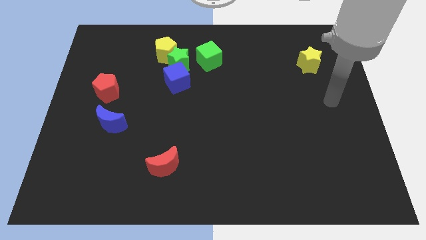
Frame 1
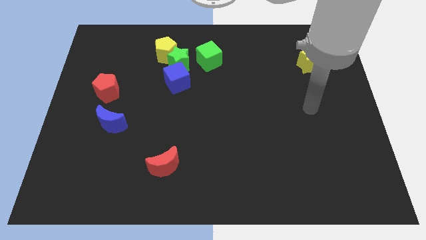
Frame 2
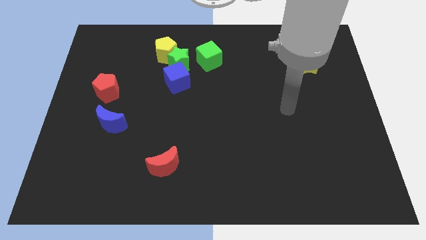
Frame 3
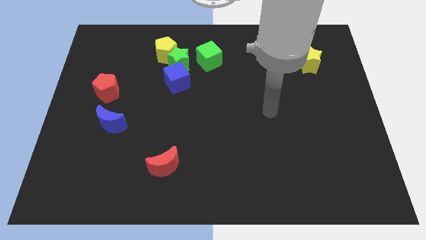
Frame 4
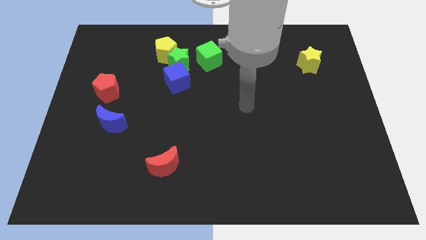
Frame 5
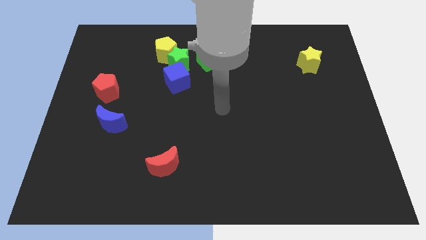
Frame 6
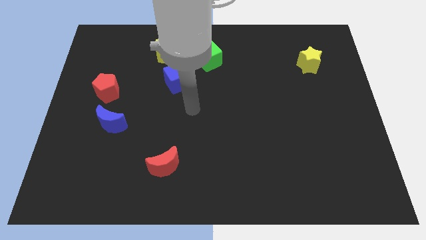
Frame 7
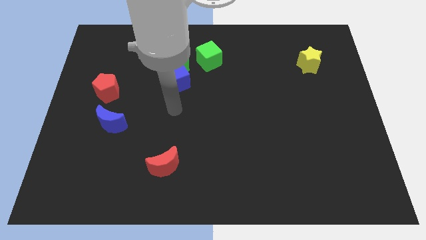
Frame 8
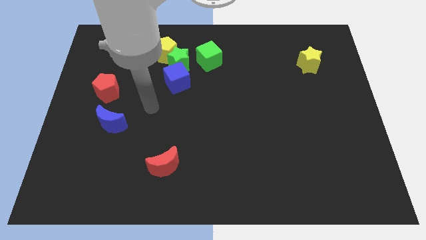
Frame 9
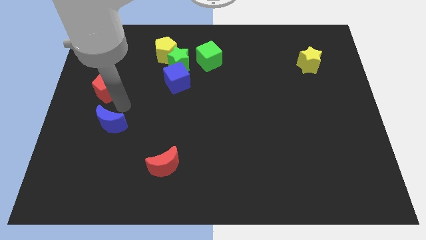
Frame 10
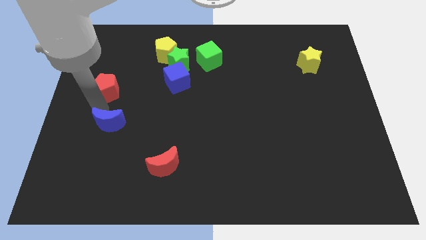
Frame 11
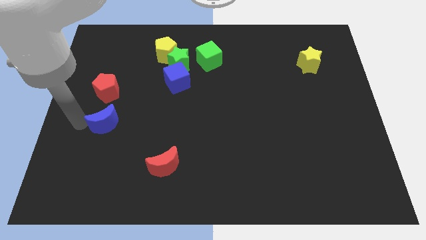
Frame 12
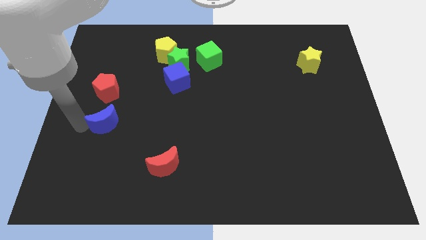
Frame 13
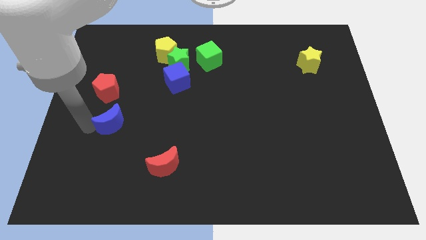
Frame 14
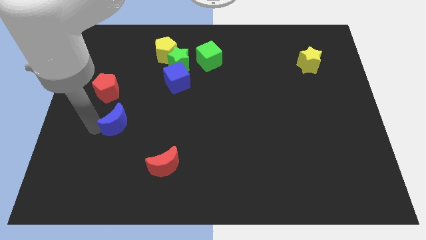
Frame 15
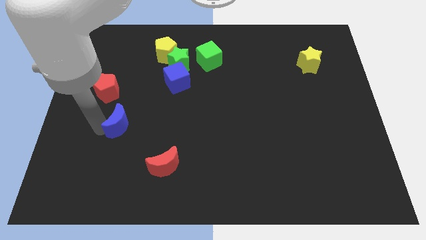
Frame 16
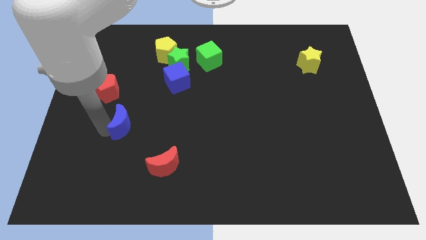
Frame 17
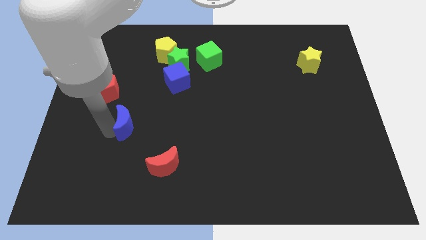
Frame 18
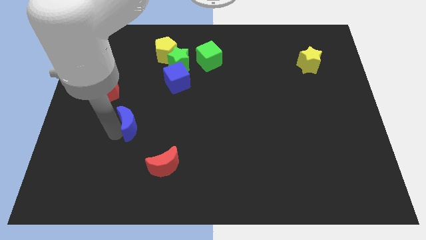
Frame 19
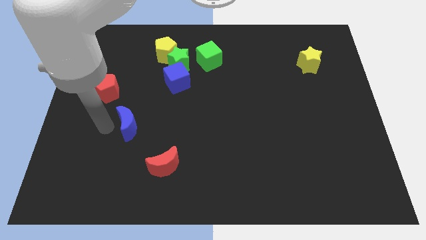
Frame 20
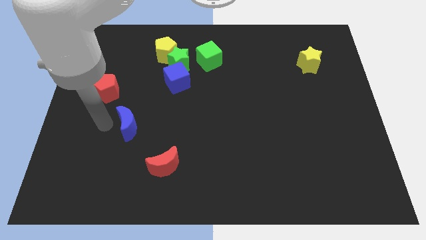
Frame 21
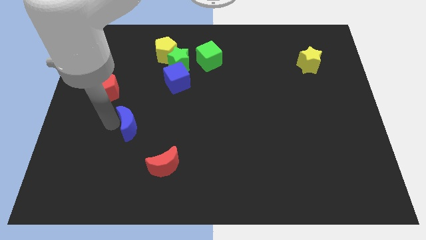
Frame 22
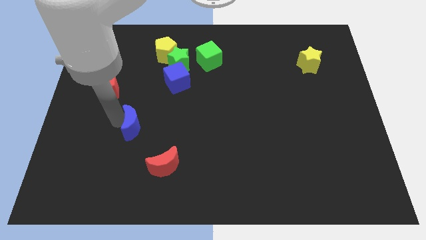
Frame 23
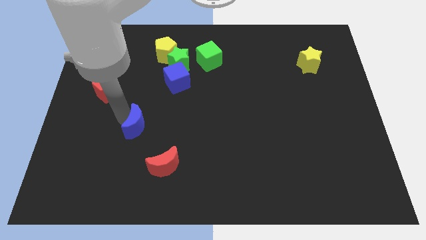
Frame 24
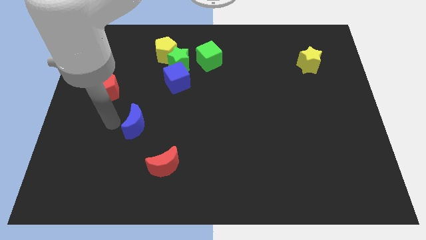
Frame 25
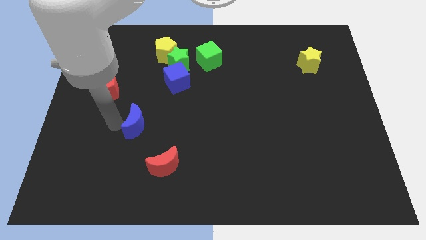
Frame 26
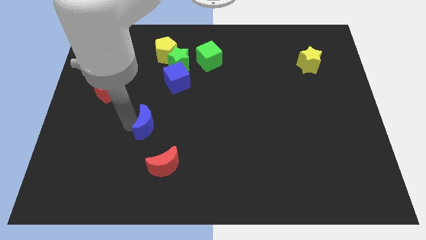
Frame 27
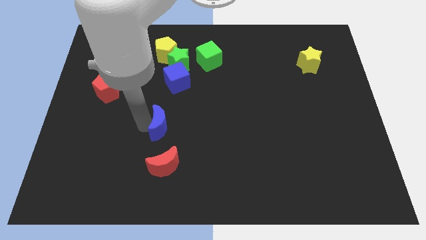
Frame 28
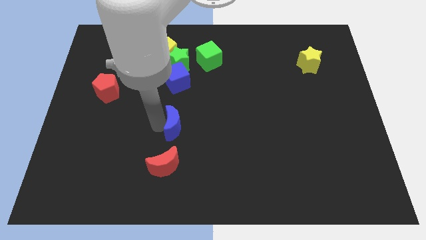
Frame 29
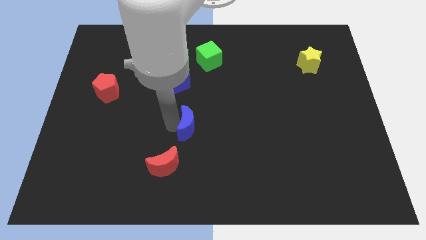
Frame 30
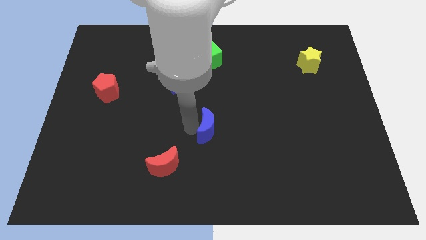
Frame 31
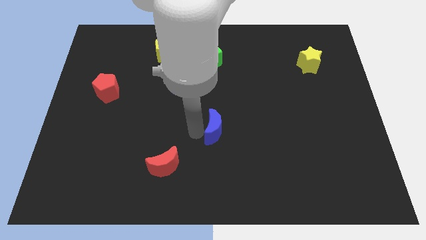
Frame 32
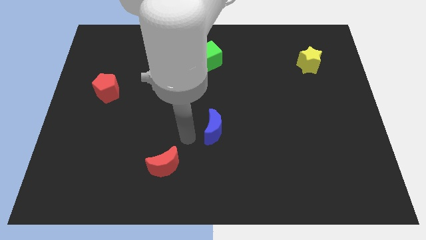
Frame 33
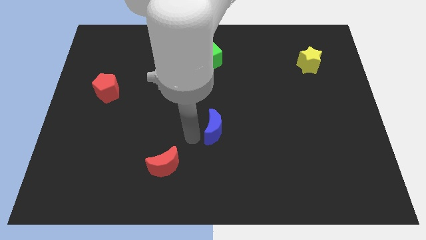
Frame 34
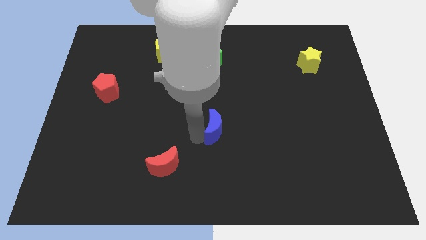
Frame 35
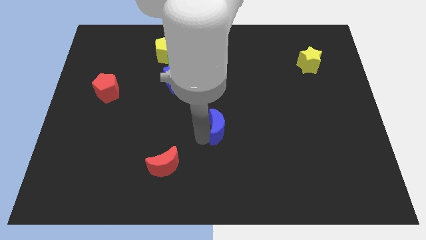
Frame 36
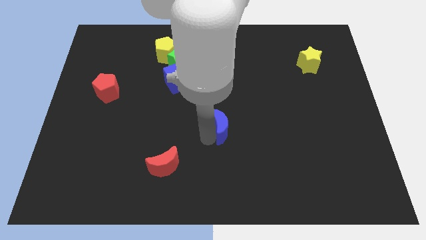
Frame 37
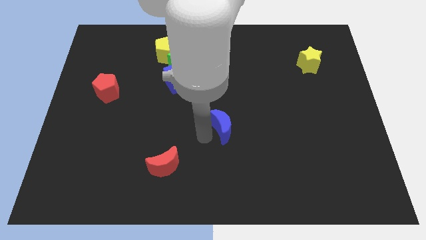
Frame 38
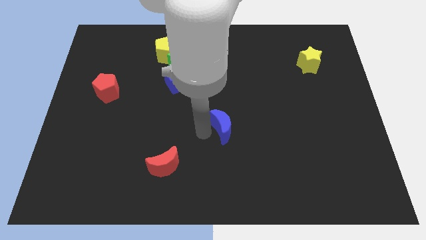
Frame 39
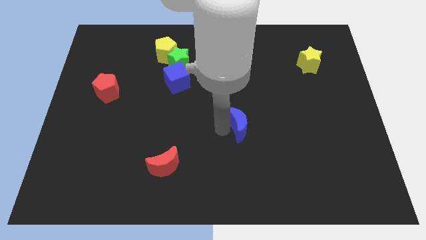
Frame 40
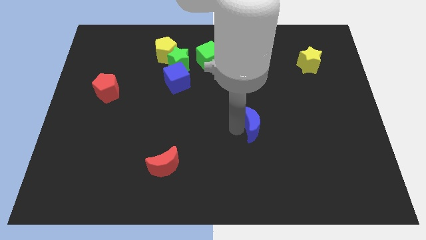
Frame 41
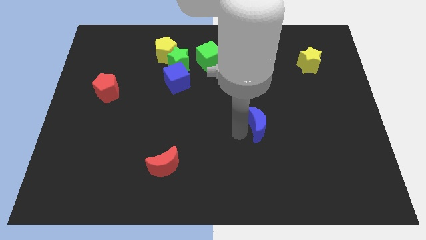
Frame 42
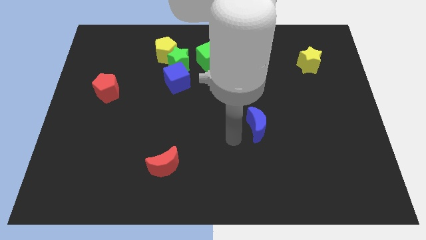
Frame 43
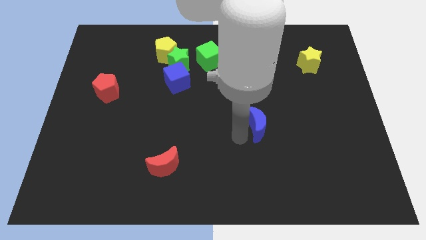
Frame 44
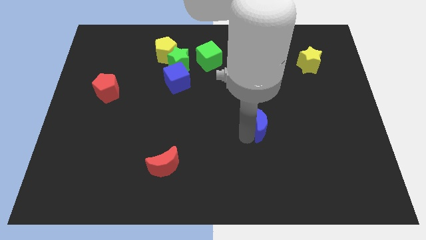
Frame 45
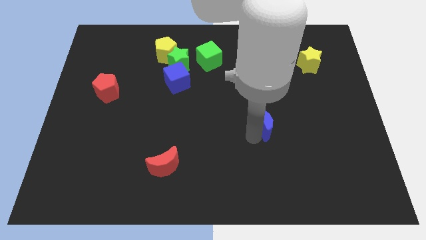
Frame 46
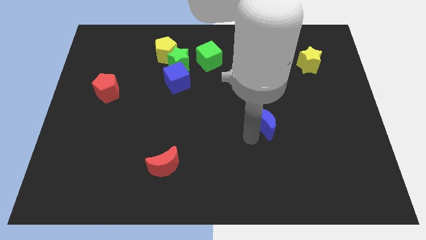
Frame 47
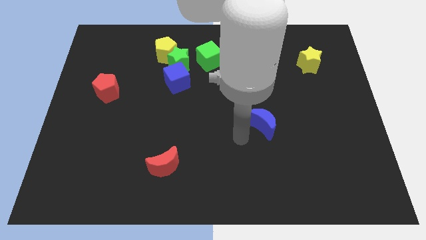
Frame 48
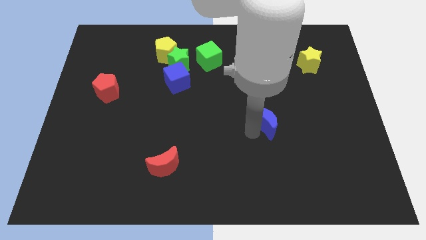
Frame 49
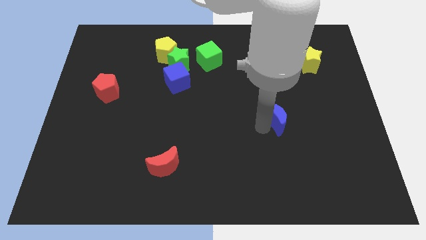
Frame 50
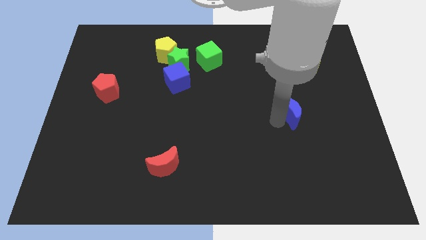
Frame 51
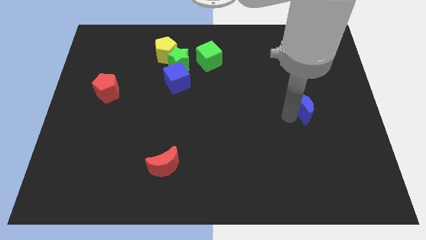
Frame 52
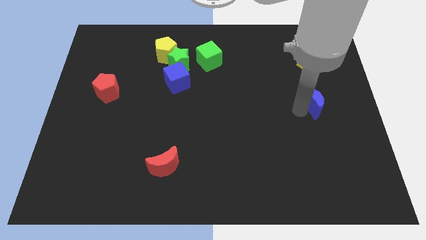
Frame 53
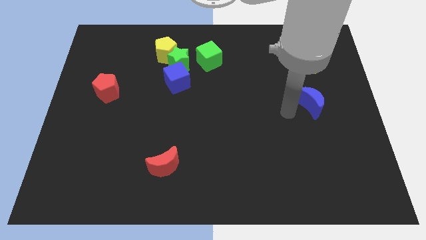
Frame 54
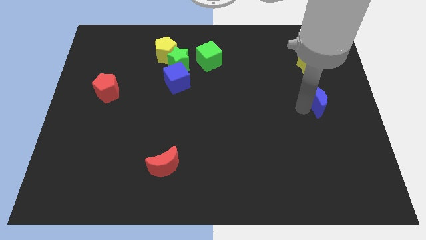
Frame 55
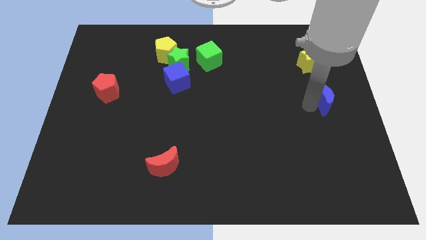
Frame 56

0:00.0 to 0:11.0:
put the blue moon to the center right
